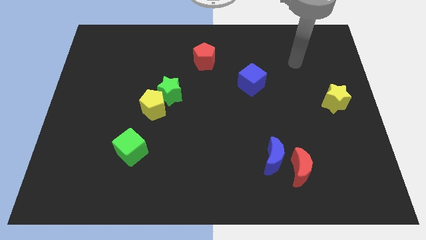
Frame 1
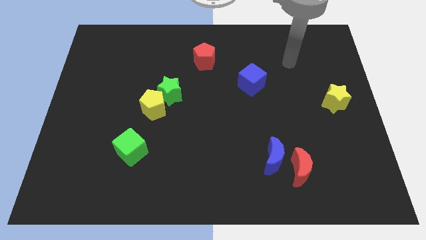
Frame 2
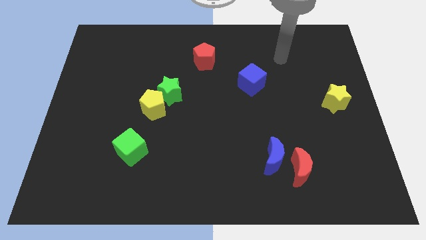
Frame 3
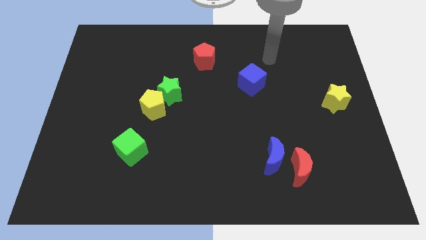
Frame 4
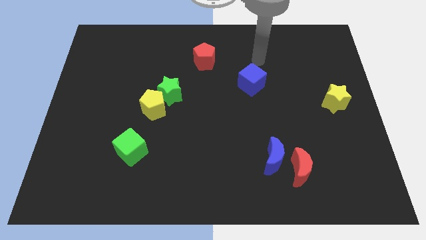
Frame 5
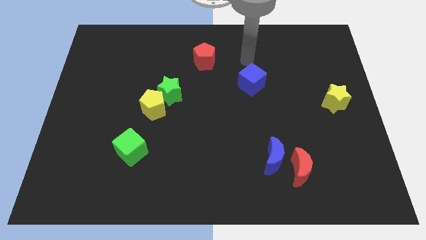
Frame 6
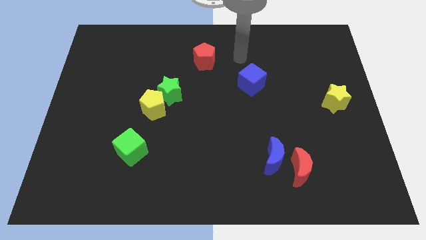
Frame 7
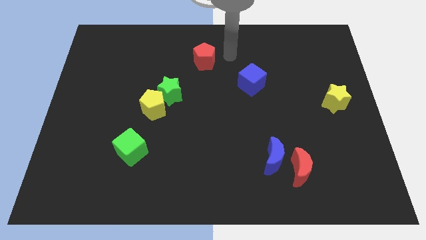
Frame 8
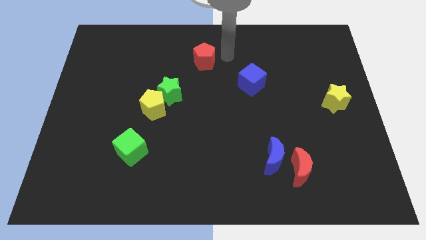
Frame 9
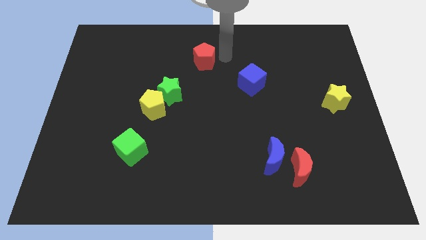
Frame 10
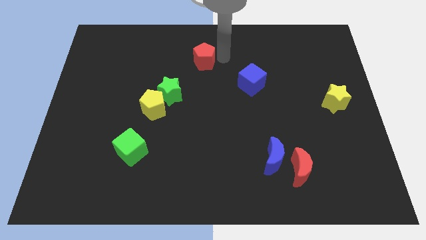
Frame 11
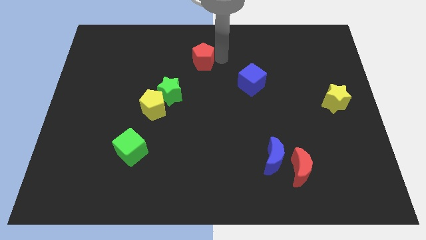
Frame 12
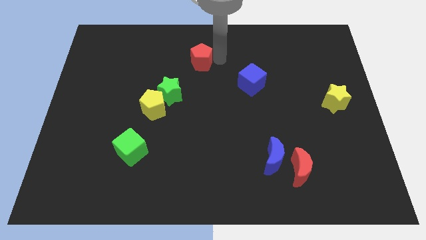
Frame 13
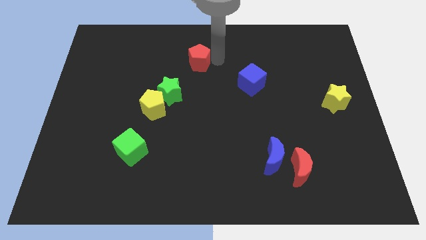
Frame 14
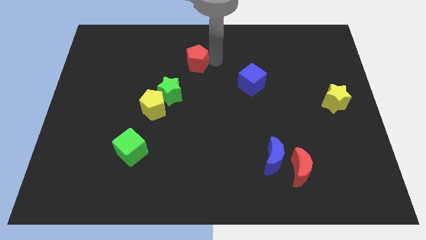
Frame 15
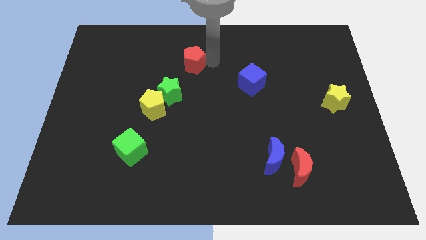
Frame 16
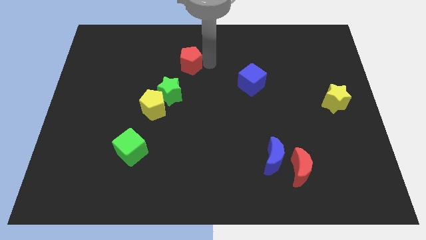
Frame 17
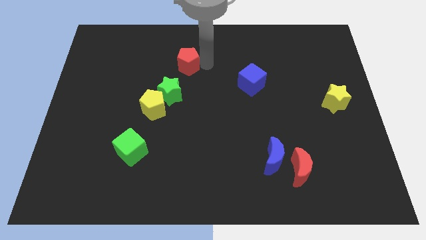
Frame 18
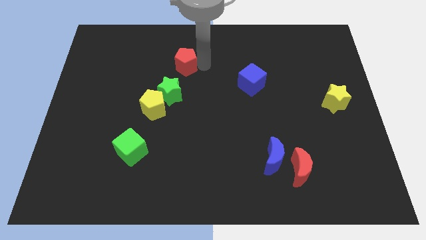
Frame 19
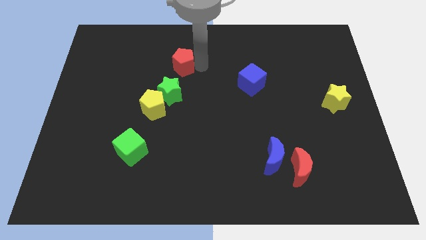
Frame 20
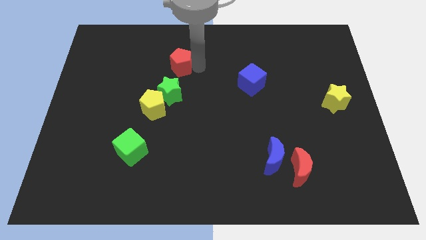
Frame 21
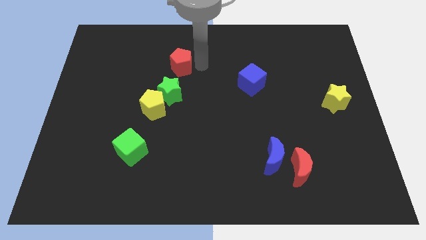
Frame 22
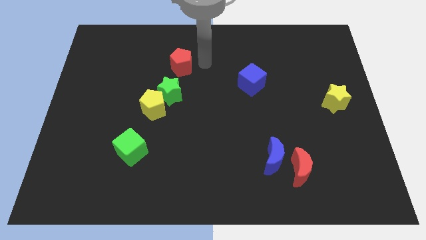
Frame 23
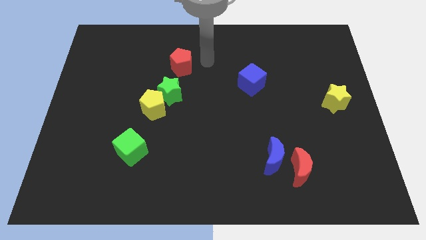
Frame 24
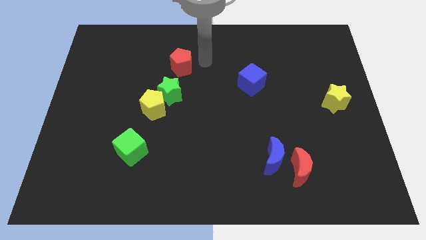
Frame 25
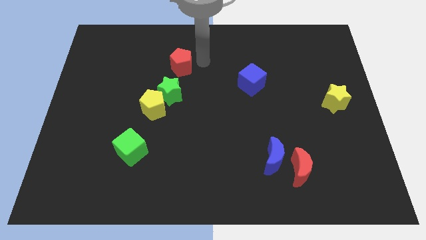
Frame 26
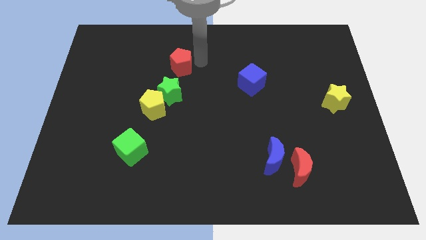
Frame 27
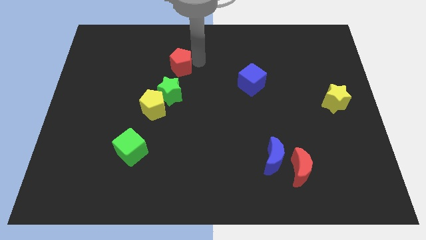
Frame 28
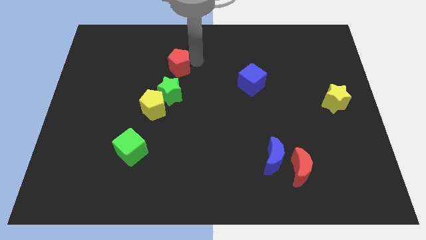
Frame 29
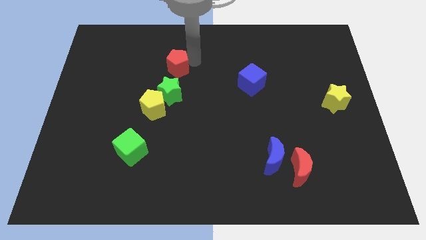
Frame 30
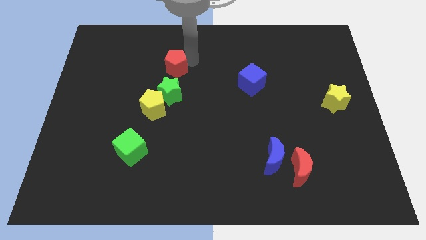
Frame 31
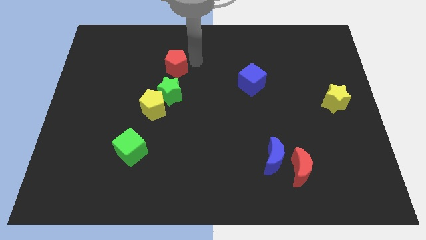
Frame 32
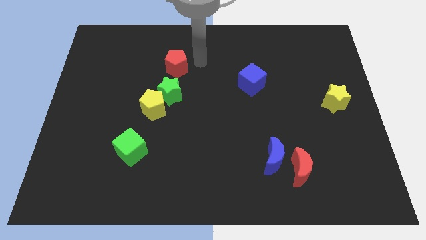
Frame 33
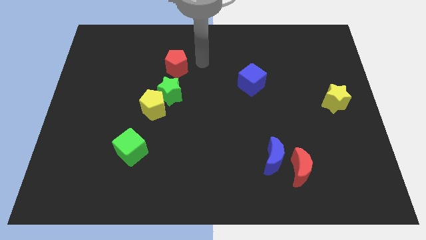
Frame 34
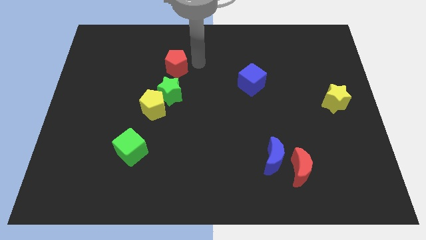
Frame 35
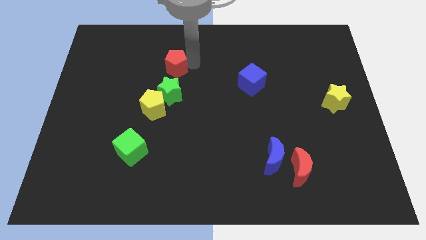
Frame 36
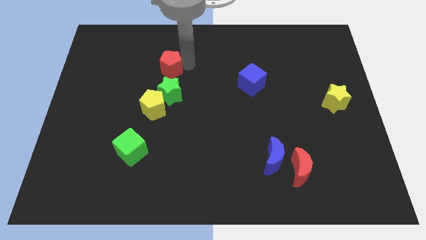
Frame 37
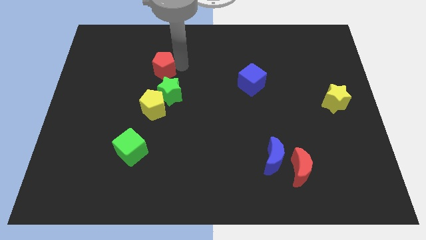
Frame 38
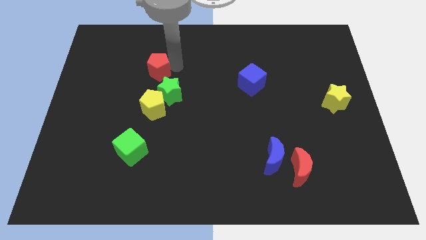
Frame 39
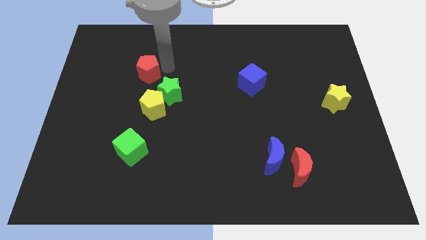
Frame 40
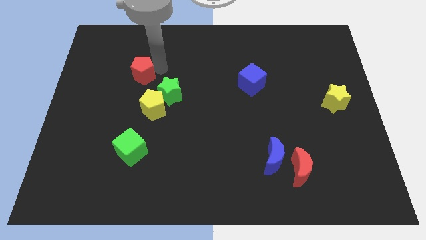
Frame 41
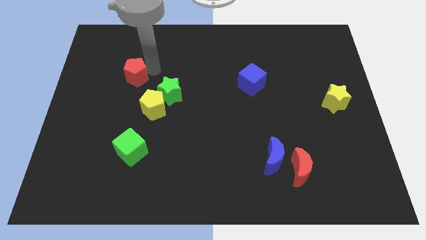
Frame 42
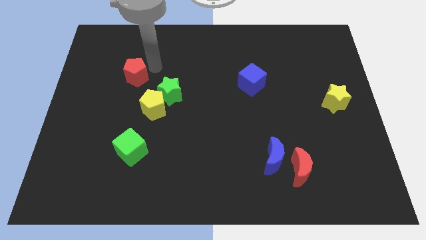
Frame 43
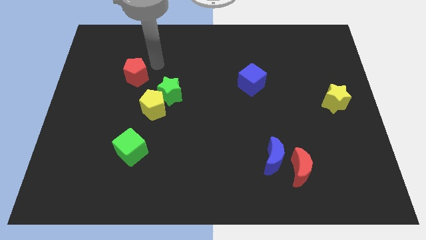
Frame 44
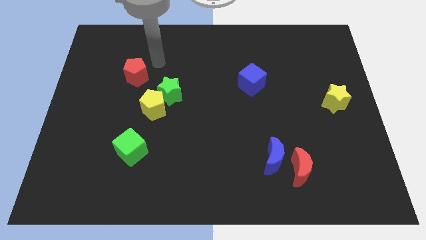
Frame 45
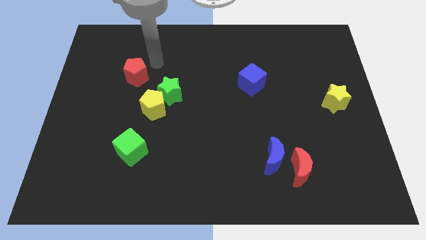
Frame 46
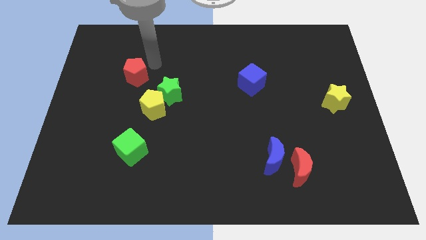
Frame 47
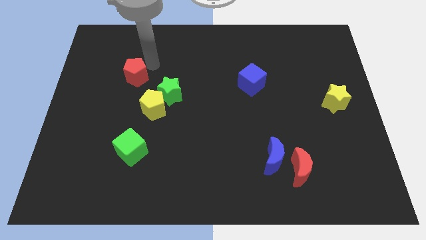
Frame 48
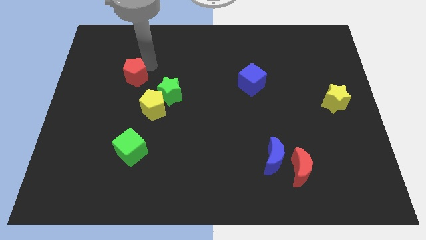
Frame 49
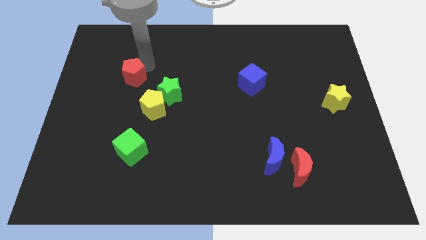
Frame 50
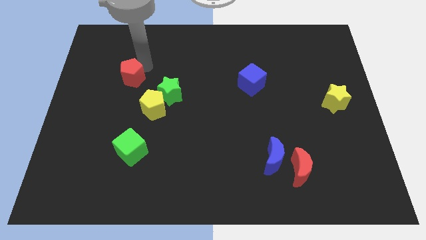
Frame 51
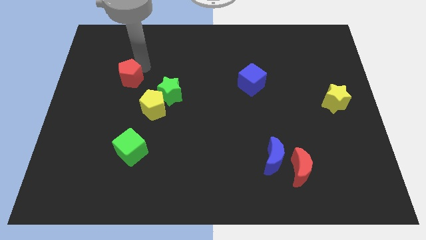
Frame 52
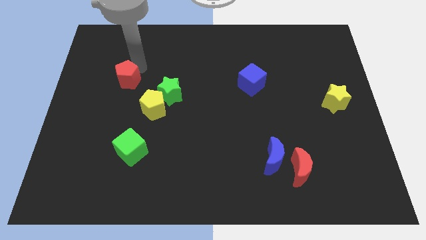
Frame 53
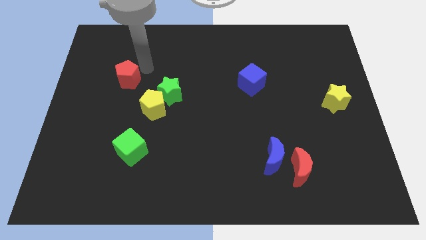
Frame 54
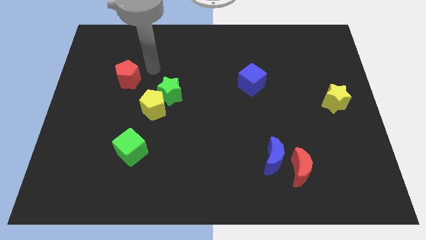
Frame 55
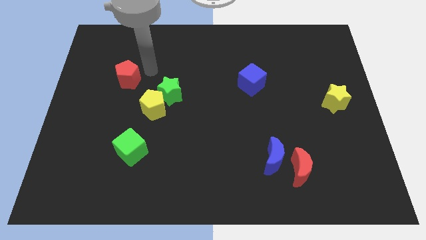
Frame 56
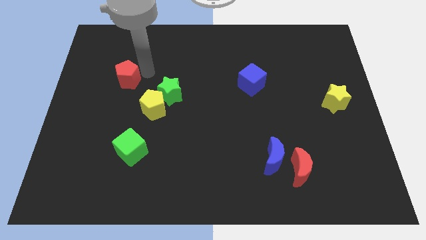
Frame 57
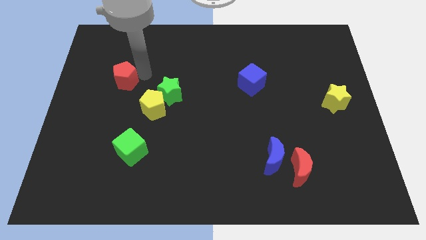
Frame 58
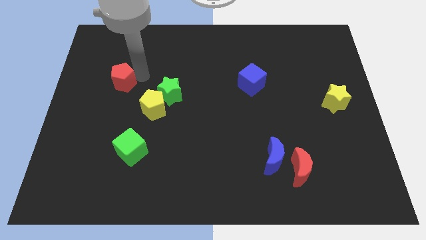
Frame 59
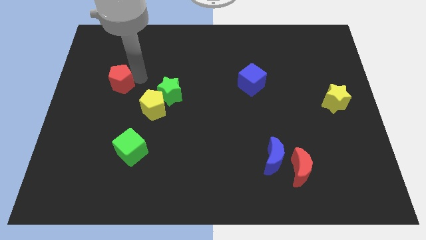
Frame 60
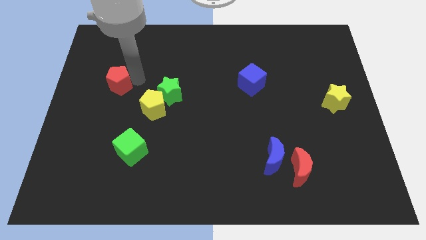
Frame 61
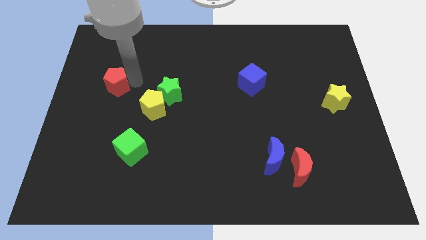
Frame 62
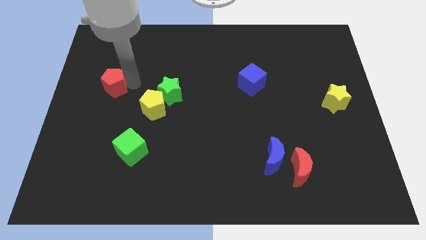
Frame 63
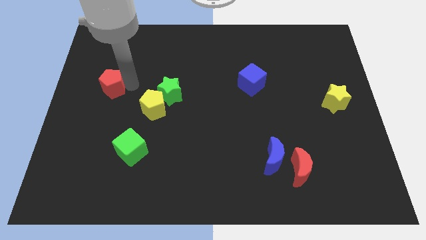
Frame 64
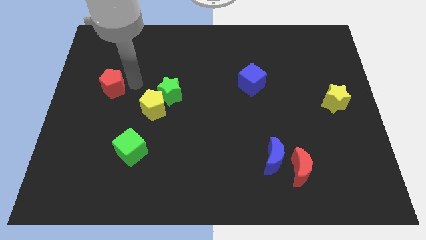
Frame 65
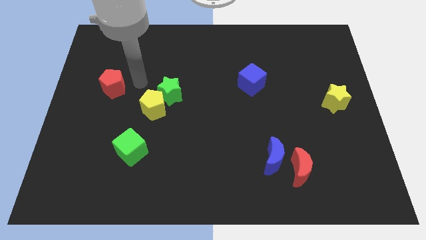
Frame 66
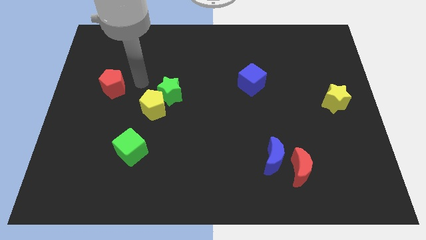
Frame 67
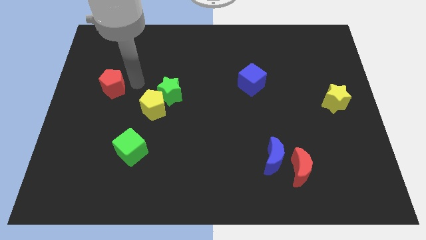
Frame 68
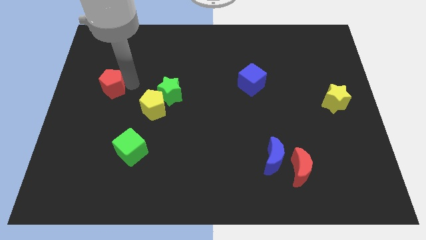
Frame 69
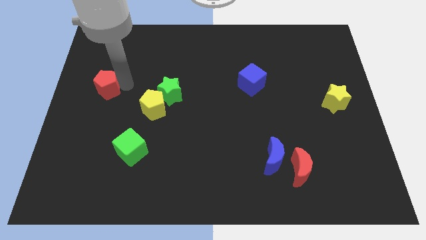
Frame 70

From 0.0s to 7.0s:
move the red pentagon to the left side of the board
